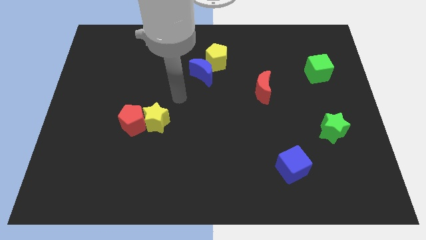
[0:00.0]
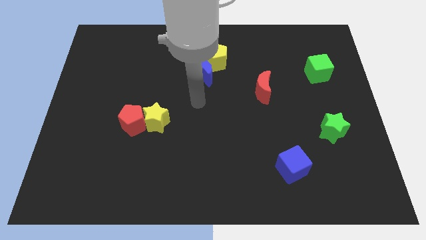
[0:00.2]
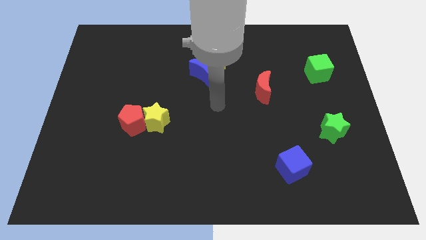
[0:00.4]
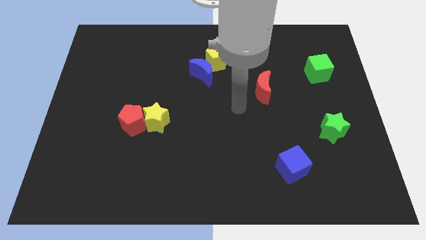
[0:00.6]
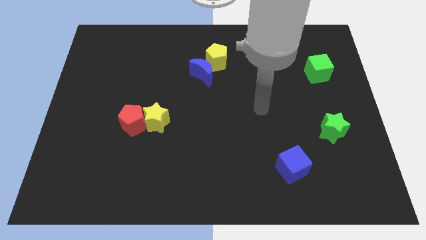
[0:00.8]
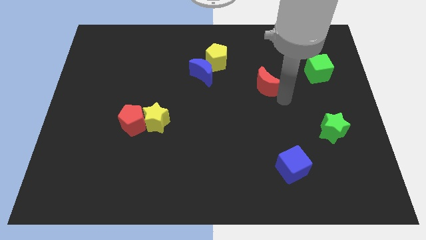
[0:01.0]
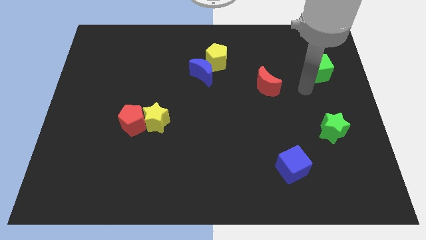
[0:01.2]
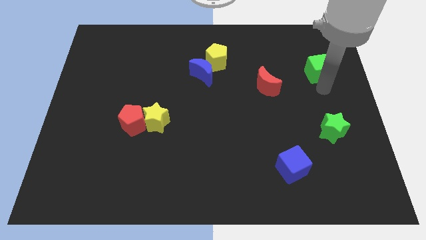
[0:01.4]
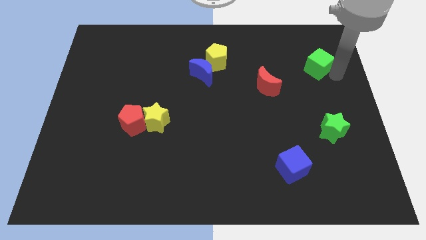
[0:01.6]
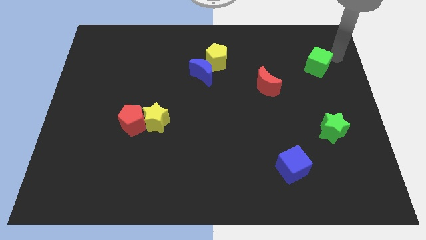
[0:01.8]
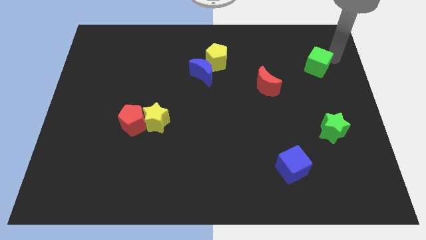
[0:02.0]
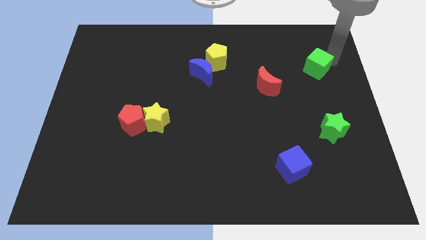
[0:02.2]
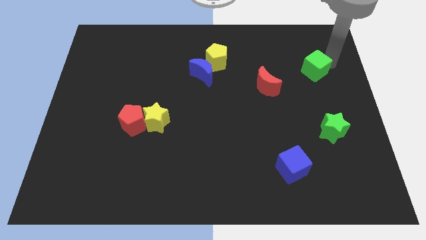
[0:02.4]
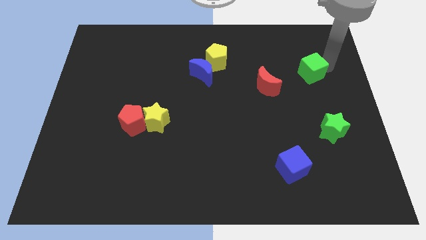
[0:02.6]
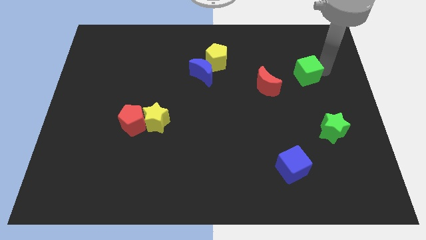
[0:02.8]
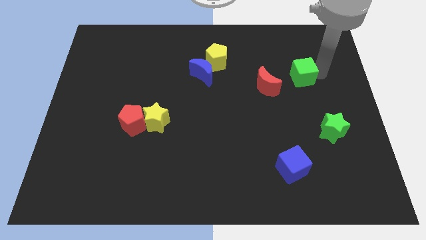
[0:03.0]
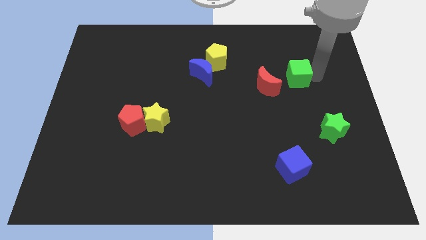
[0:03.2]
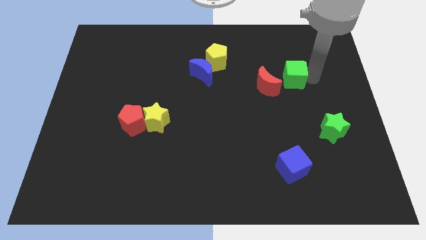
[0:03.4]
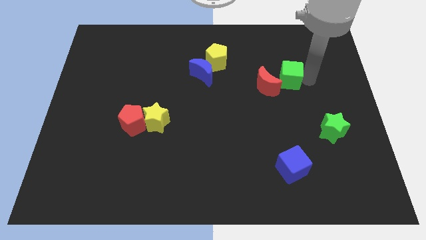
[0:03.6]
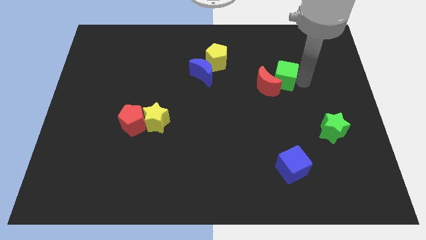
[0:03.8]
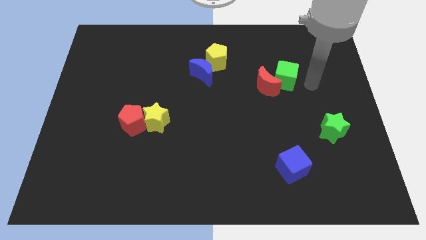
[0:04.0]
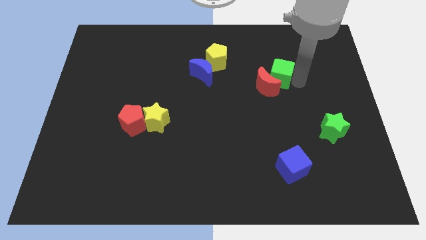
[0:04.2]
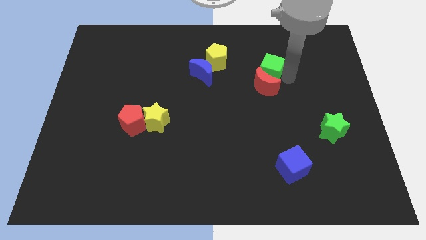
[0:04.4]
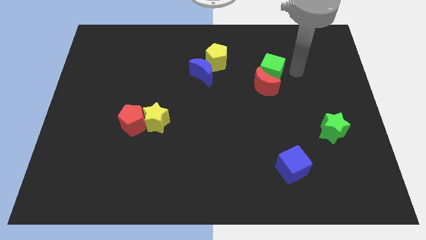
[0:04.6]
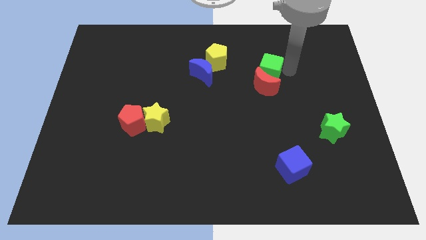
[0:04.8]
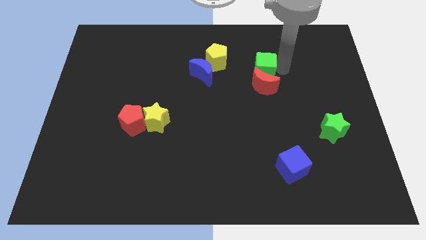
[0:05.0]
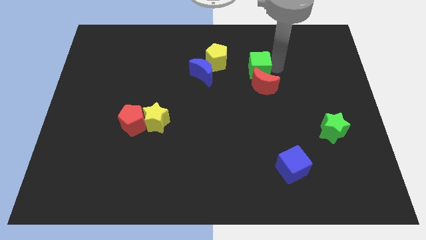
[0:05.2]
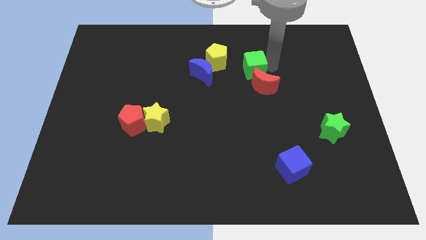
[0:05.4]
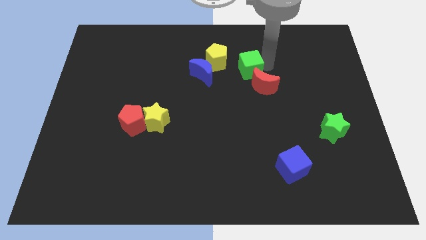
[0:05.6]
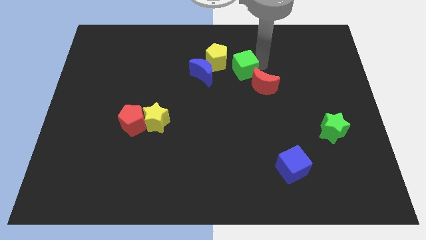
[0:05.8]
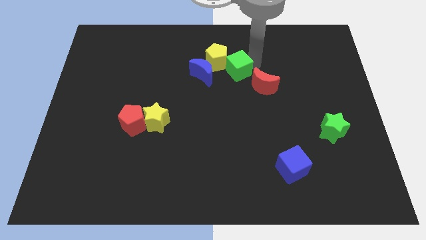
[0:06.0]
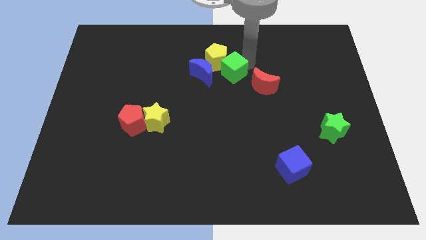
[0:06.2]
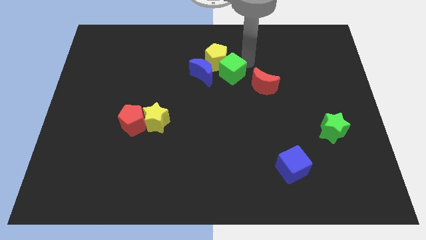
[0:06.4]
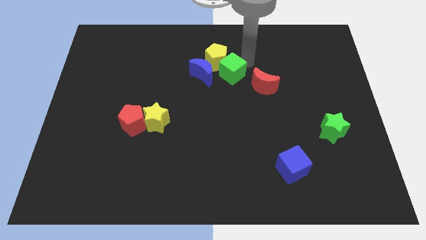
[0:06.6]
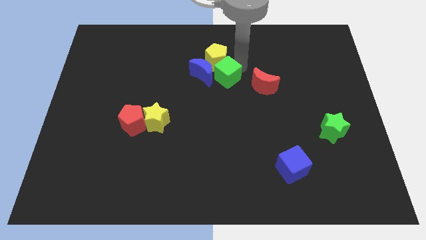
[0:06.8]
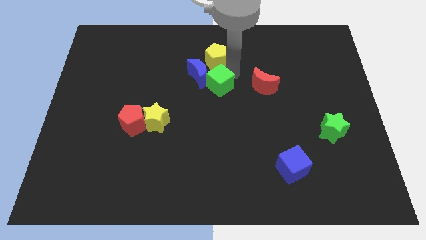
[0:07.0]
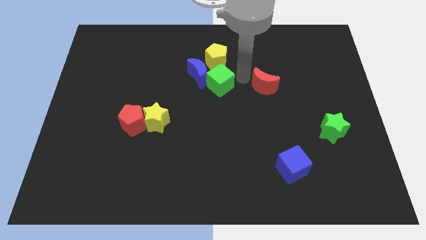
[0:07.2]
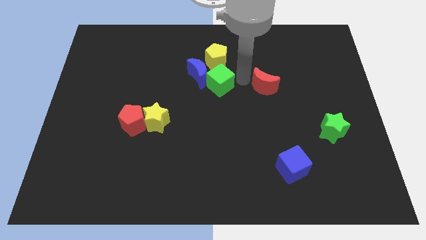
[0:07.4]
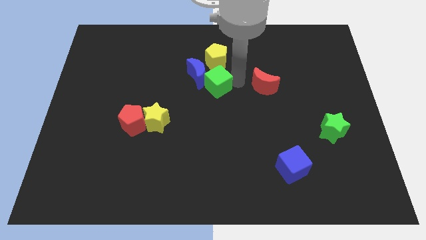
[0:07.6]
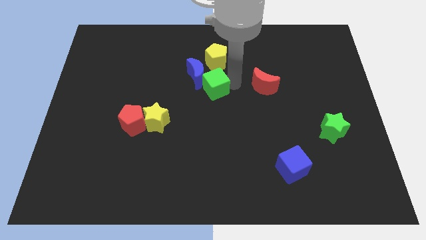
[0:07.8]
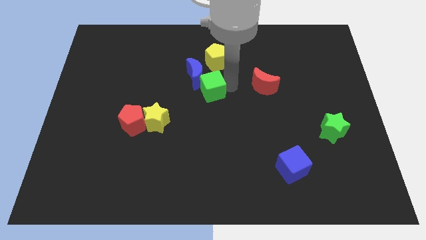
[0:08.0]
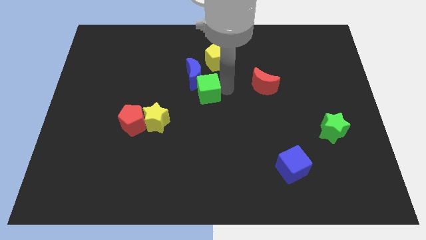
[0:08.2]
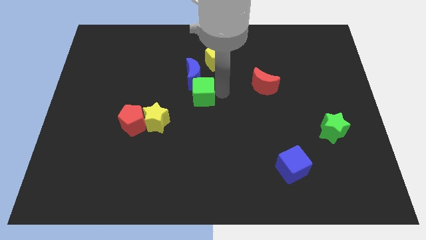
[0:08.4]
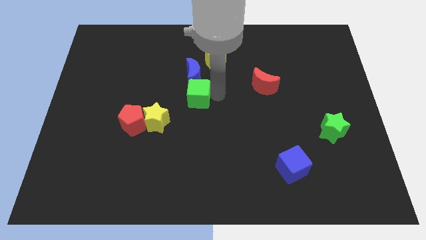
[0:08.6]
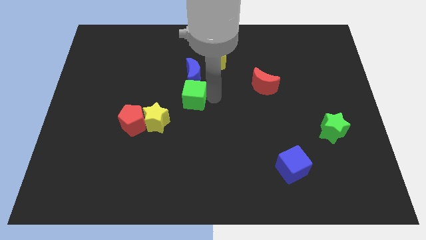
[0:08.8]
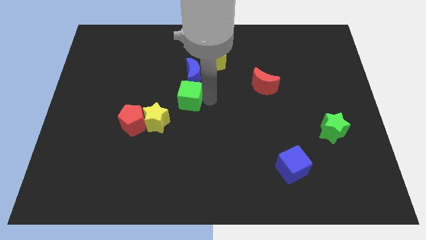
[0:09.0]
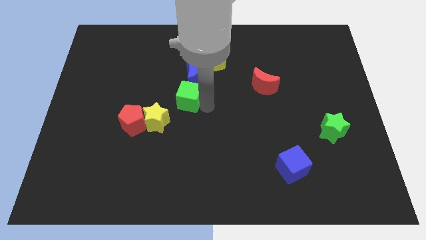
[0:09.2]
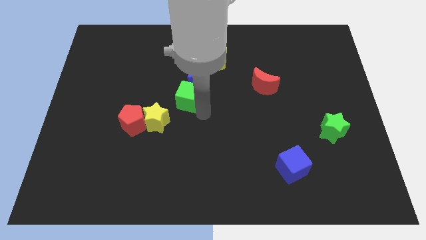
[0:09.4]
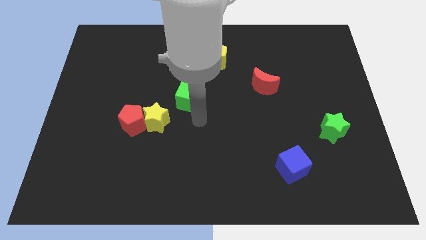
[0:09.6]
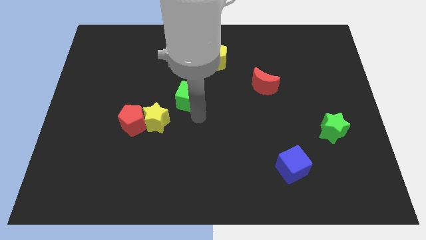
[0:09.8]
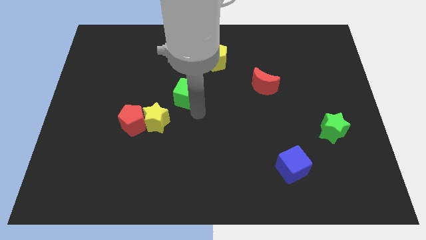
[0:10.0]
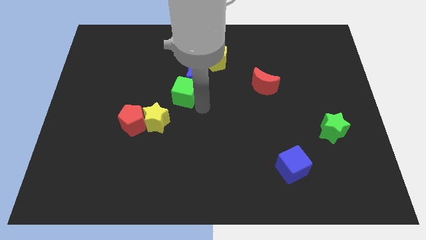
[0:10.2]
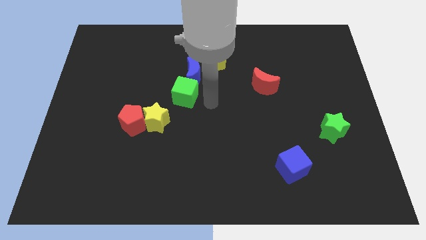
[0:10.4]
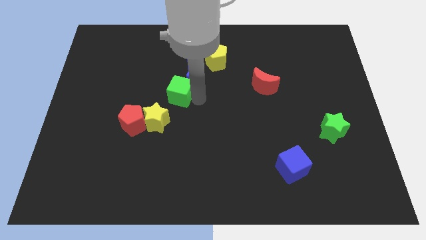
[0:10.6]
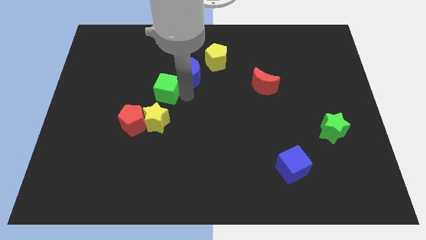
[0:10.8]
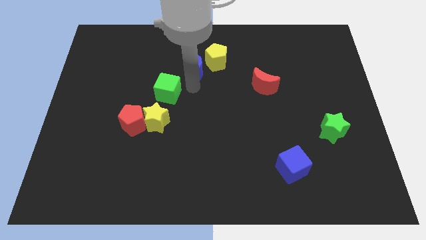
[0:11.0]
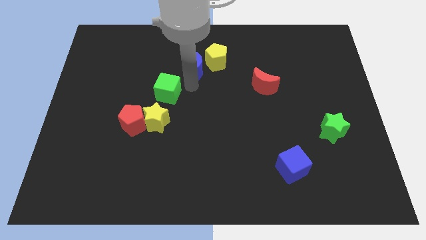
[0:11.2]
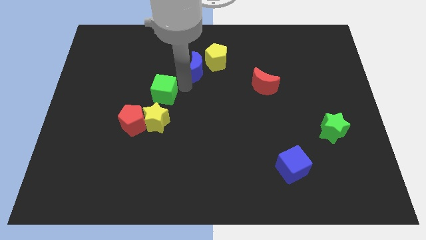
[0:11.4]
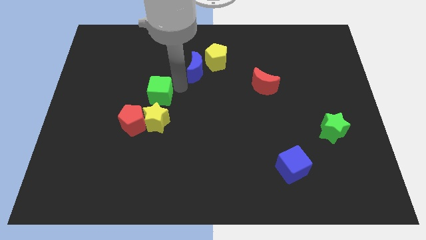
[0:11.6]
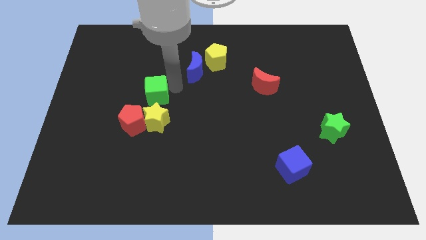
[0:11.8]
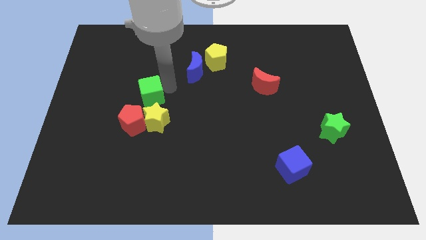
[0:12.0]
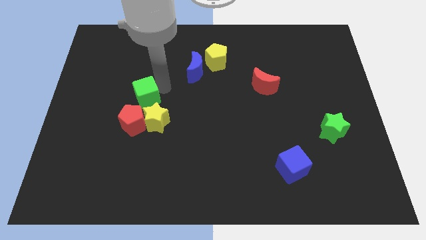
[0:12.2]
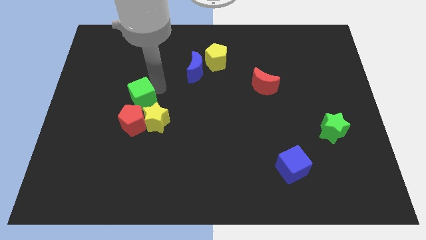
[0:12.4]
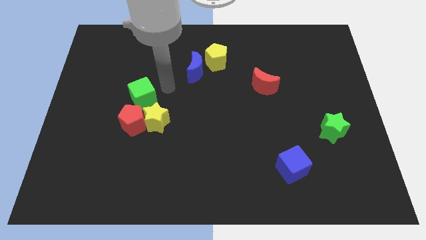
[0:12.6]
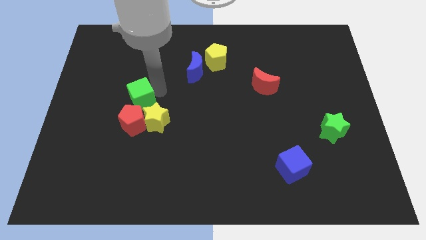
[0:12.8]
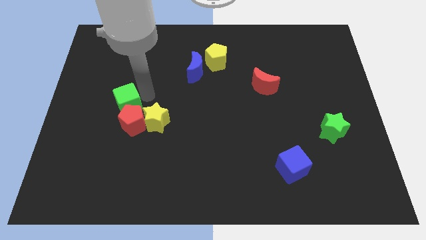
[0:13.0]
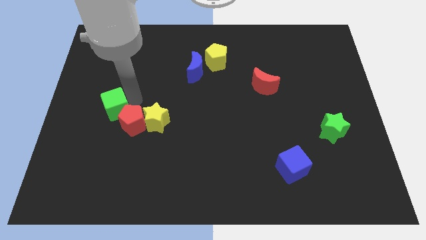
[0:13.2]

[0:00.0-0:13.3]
slide the green cube just left of the red pentagon
